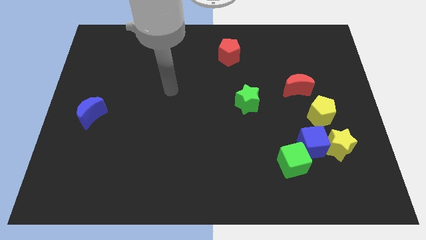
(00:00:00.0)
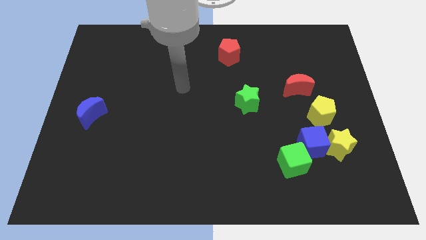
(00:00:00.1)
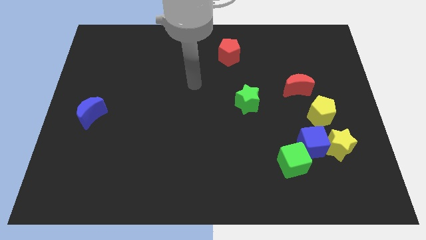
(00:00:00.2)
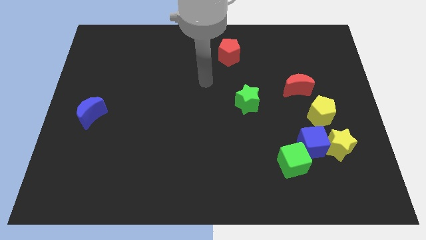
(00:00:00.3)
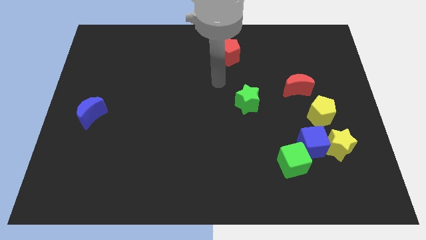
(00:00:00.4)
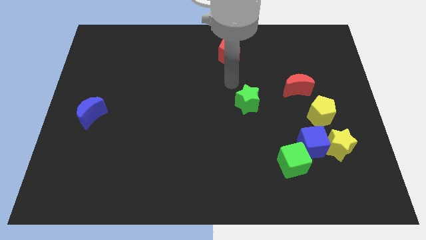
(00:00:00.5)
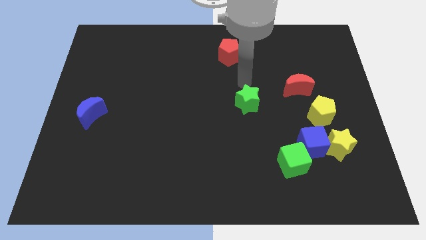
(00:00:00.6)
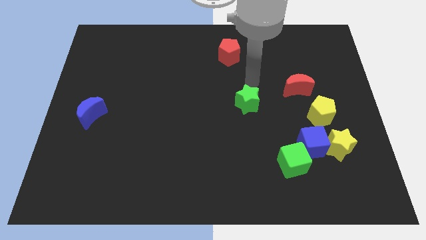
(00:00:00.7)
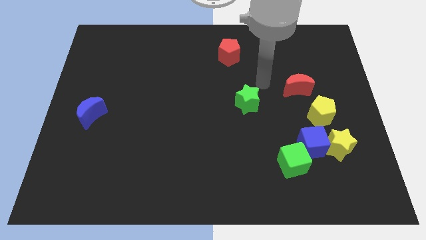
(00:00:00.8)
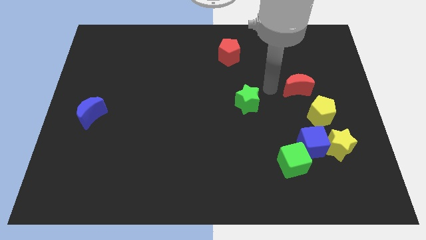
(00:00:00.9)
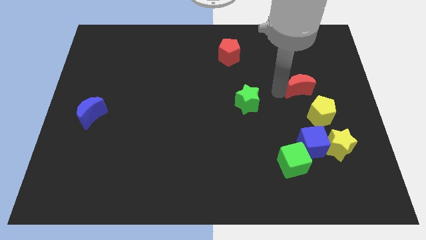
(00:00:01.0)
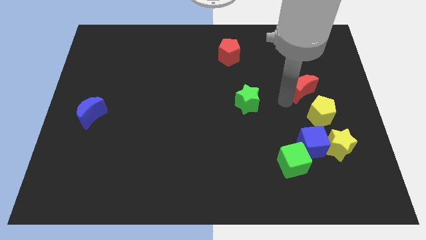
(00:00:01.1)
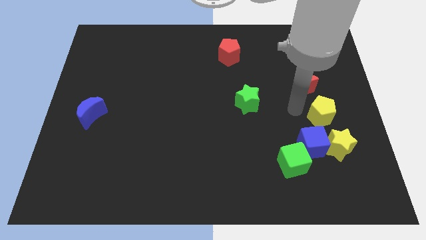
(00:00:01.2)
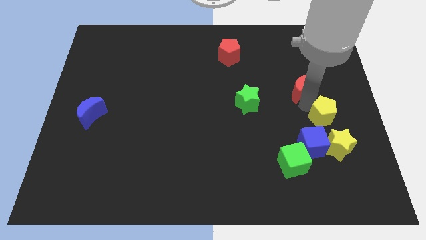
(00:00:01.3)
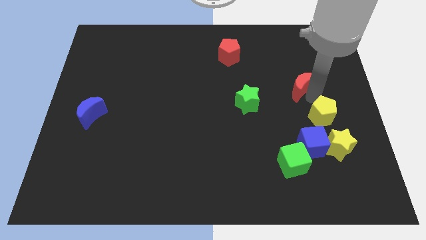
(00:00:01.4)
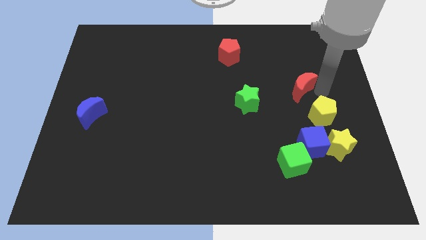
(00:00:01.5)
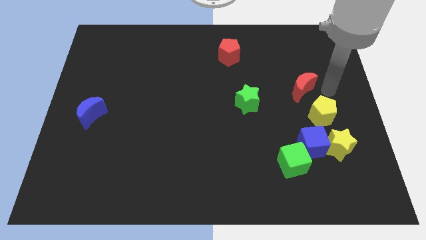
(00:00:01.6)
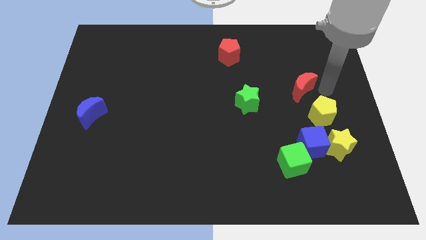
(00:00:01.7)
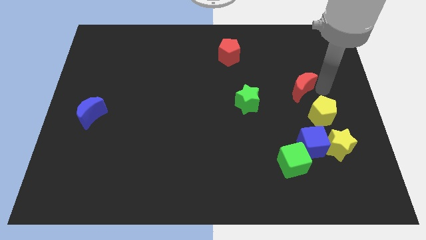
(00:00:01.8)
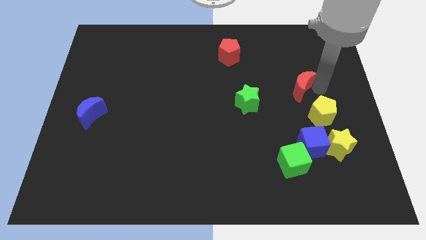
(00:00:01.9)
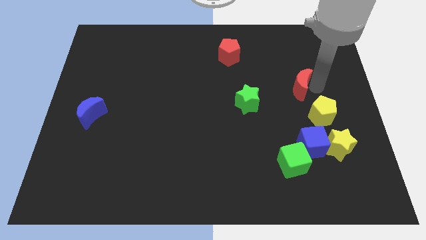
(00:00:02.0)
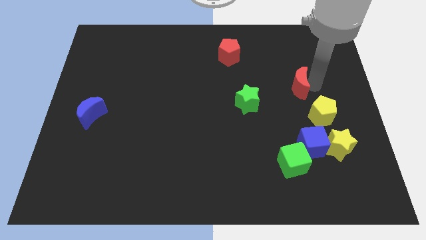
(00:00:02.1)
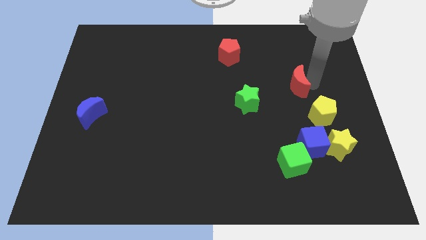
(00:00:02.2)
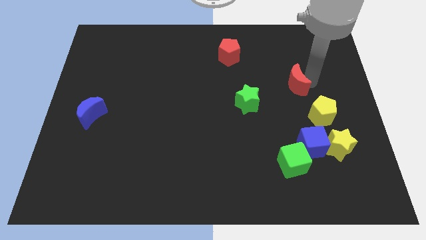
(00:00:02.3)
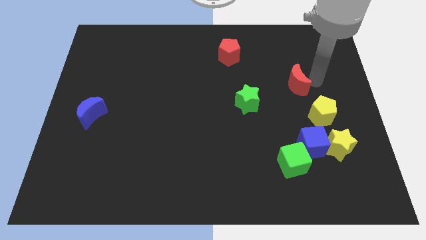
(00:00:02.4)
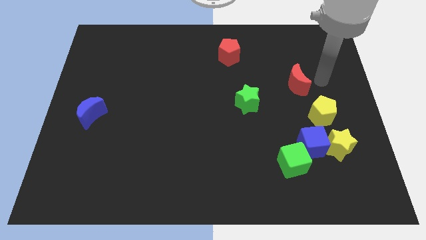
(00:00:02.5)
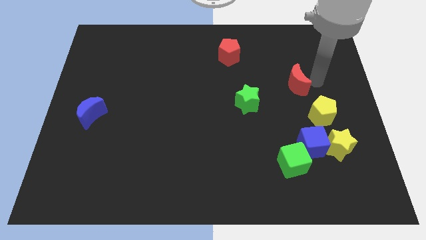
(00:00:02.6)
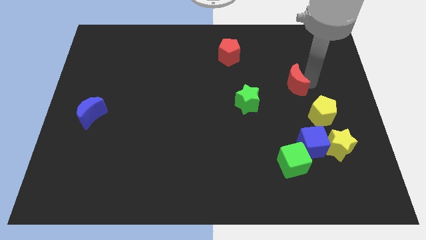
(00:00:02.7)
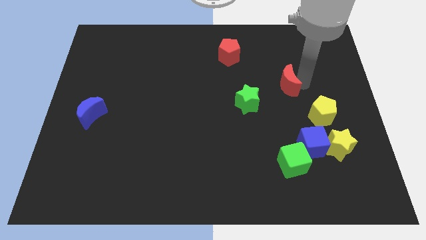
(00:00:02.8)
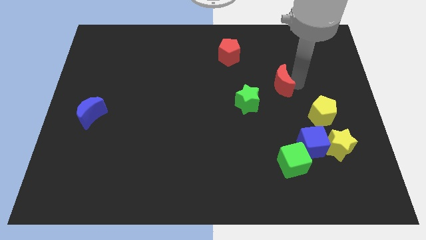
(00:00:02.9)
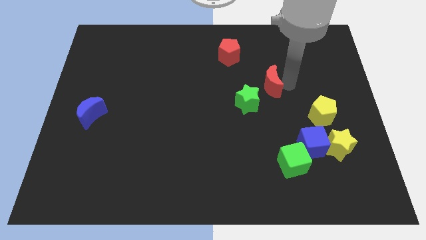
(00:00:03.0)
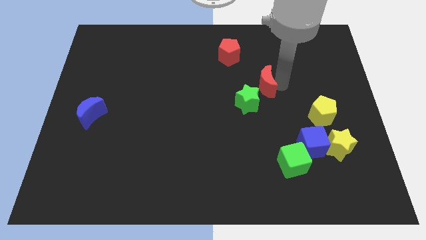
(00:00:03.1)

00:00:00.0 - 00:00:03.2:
move the red moon a little to the left

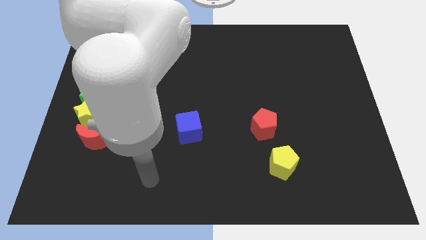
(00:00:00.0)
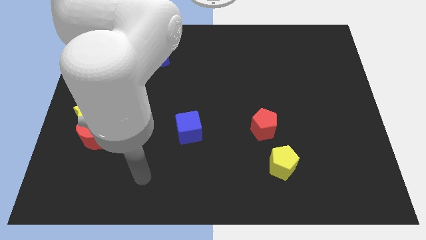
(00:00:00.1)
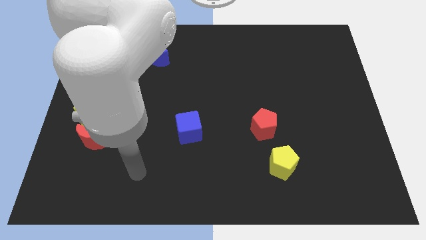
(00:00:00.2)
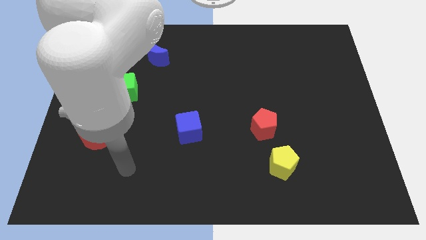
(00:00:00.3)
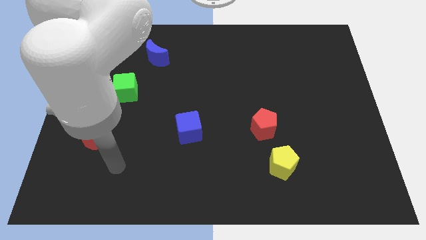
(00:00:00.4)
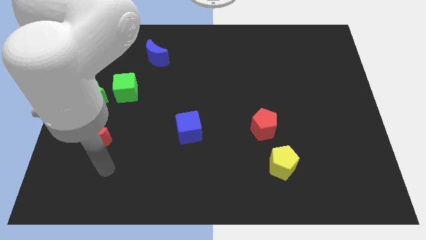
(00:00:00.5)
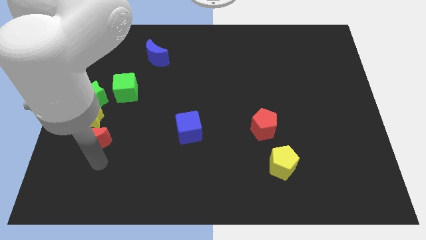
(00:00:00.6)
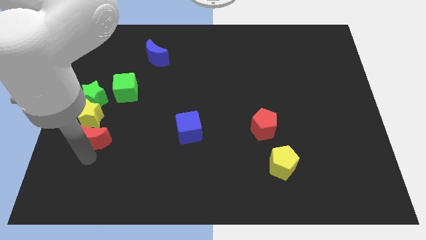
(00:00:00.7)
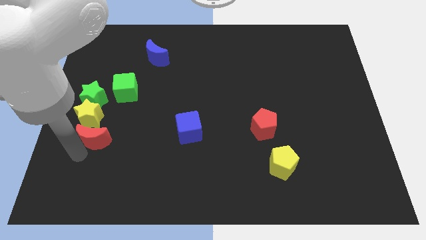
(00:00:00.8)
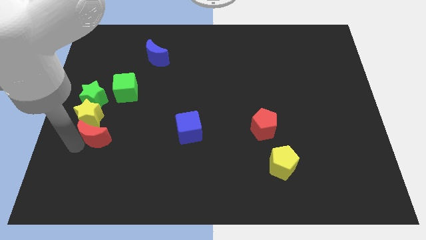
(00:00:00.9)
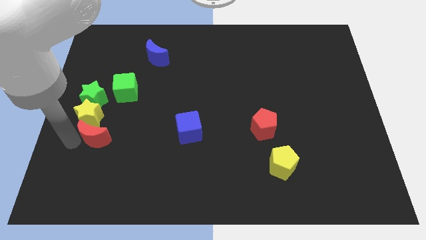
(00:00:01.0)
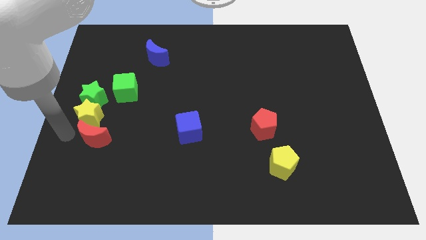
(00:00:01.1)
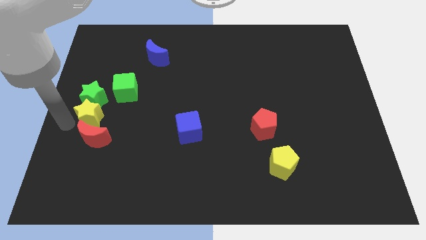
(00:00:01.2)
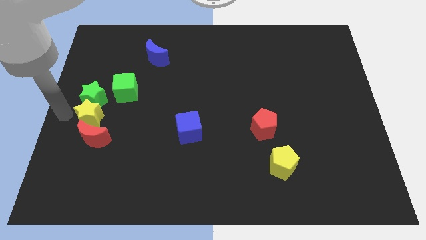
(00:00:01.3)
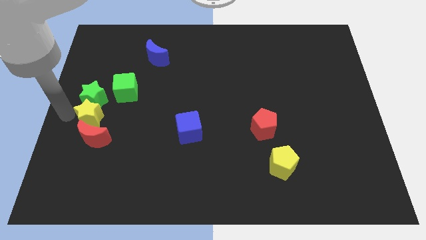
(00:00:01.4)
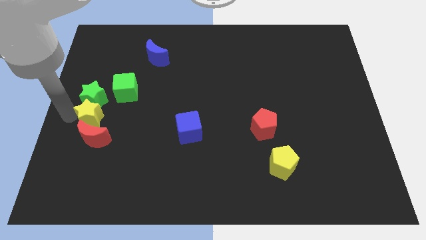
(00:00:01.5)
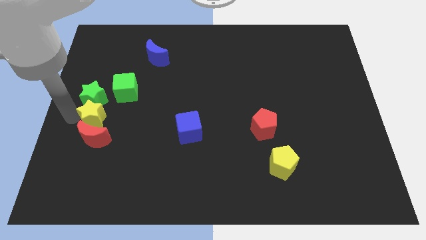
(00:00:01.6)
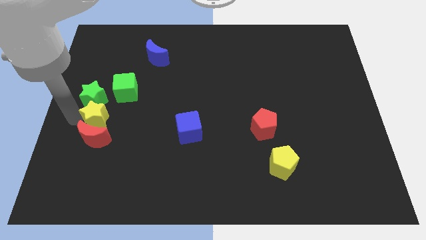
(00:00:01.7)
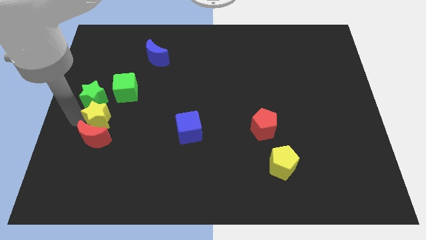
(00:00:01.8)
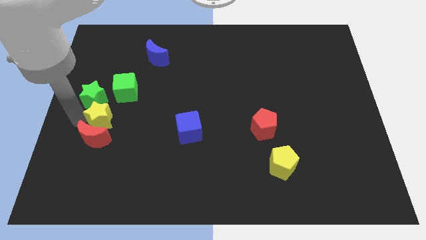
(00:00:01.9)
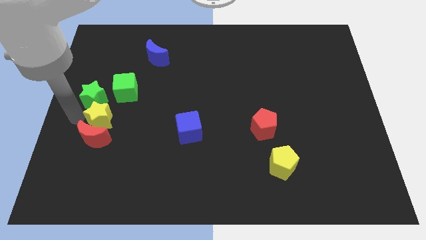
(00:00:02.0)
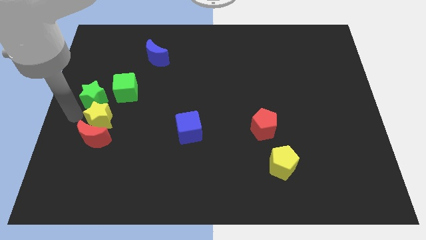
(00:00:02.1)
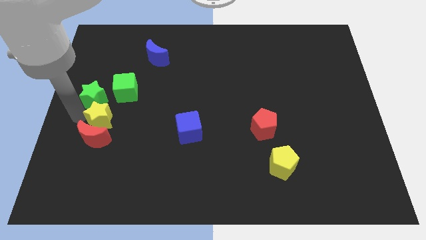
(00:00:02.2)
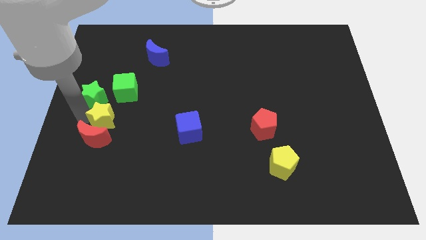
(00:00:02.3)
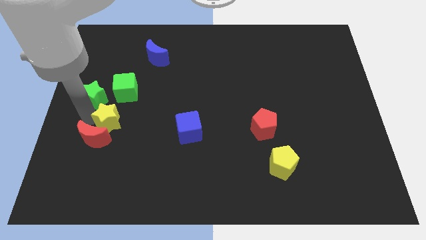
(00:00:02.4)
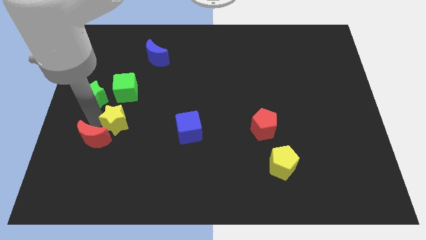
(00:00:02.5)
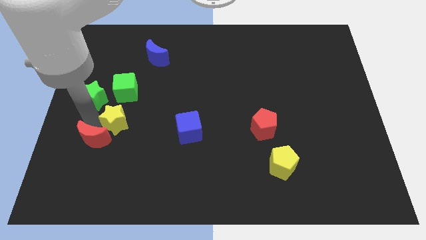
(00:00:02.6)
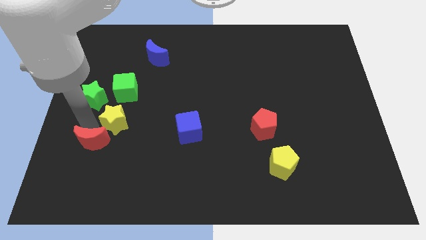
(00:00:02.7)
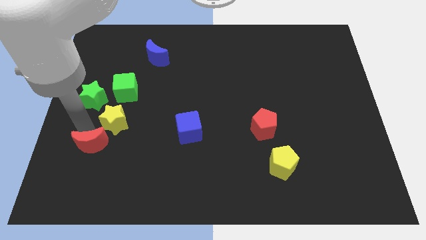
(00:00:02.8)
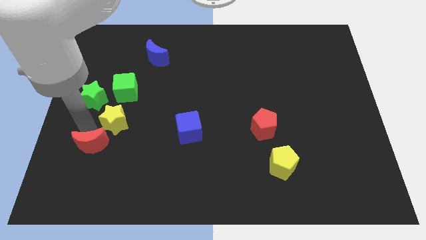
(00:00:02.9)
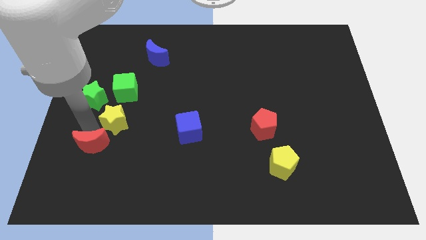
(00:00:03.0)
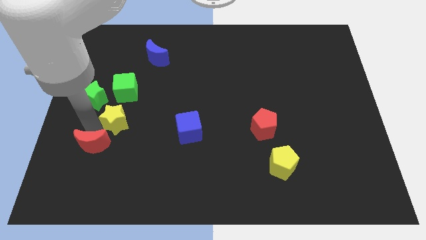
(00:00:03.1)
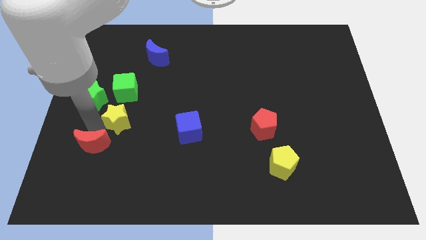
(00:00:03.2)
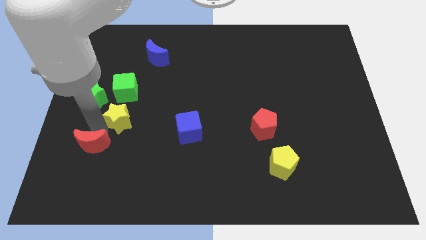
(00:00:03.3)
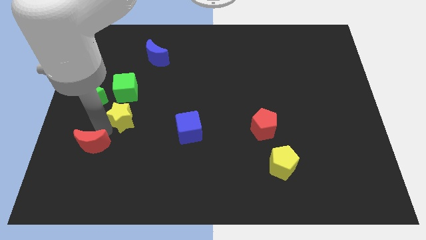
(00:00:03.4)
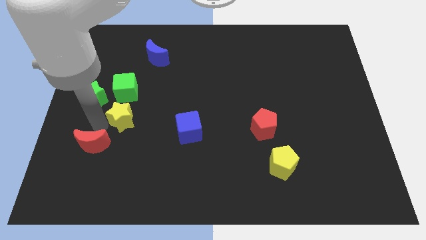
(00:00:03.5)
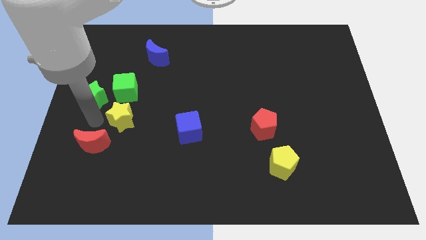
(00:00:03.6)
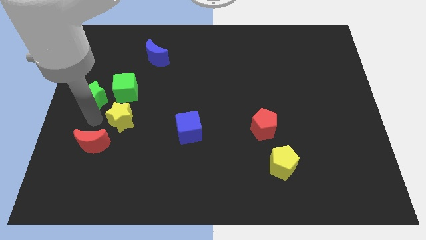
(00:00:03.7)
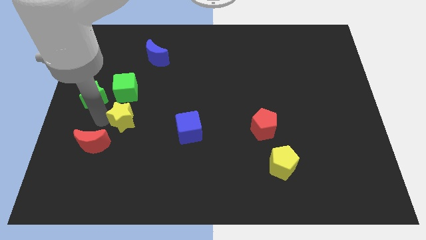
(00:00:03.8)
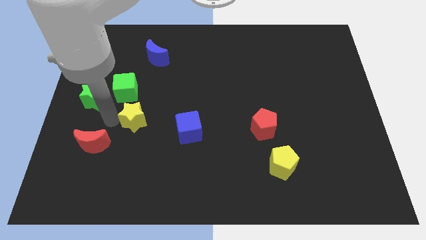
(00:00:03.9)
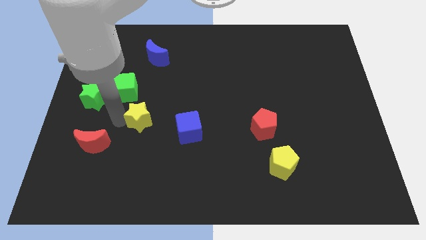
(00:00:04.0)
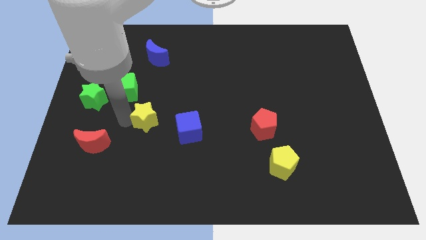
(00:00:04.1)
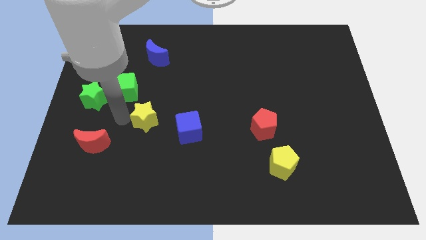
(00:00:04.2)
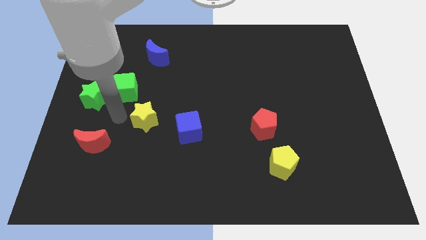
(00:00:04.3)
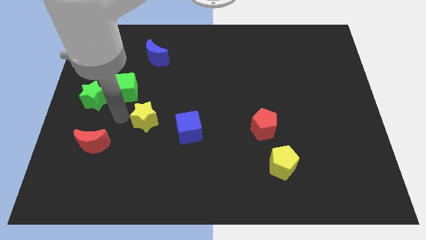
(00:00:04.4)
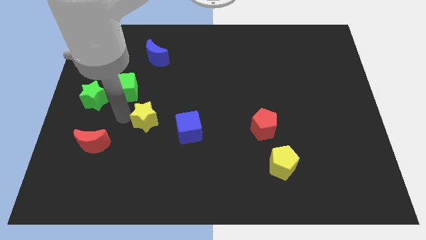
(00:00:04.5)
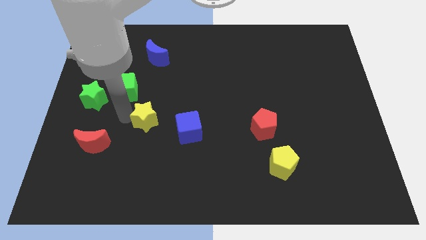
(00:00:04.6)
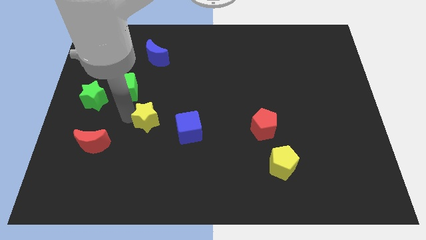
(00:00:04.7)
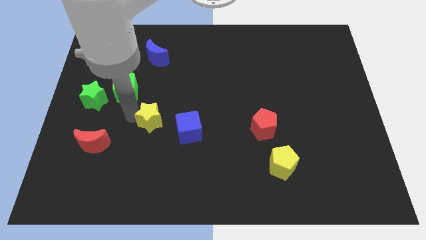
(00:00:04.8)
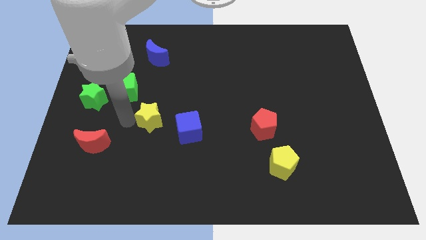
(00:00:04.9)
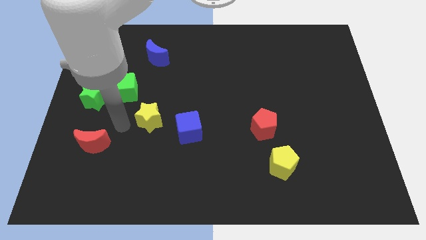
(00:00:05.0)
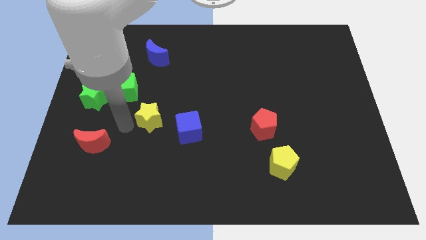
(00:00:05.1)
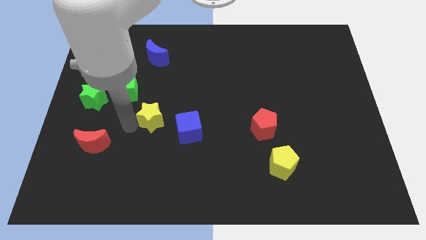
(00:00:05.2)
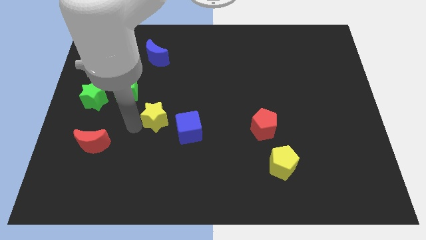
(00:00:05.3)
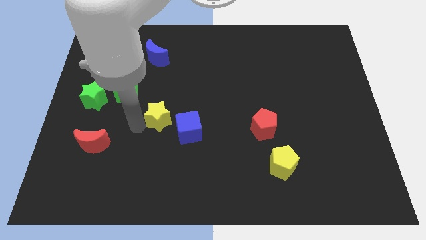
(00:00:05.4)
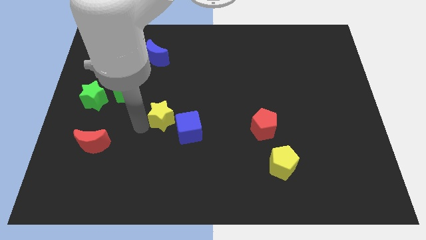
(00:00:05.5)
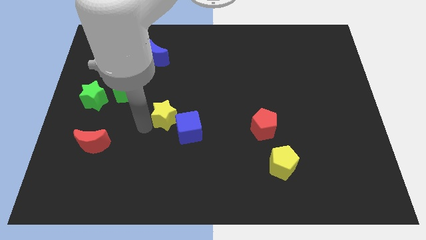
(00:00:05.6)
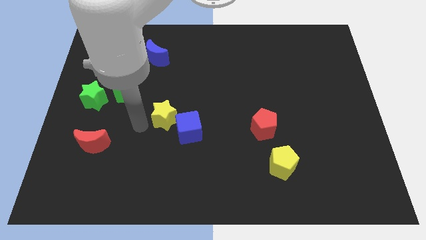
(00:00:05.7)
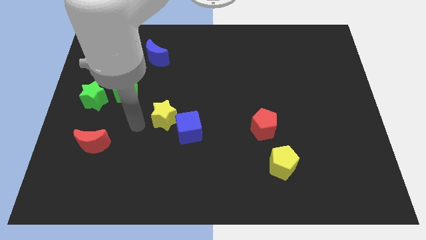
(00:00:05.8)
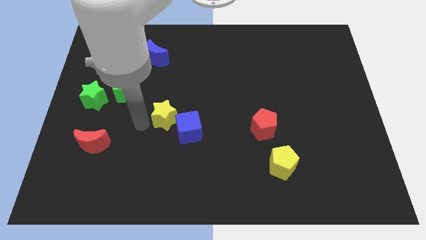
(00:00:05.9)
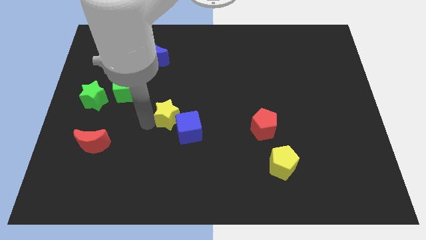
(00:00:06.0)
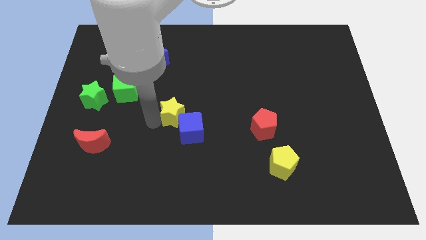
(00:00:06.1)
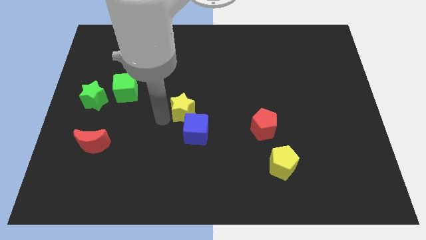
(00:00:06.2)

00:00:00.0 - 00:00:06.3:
move the yellow star right
